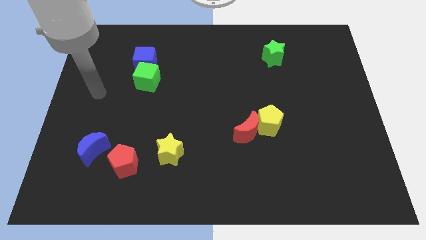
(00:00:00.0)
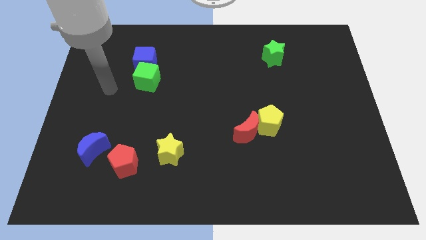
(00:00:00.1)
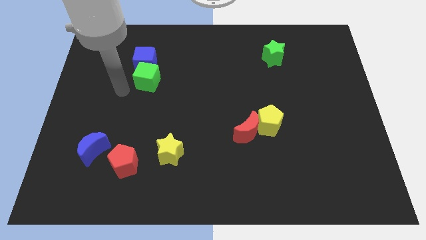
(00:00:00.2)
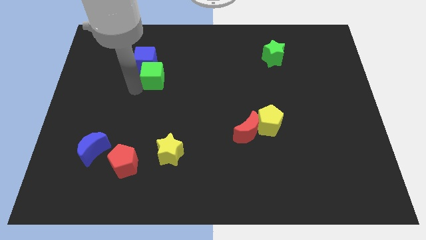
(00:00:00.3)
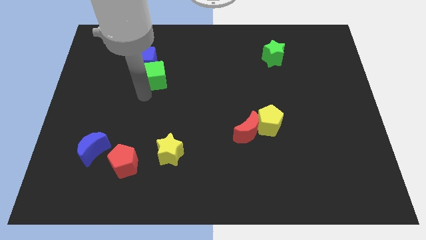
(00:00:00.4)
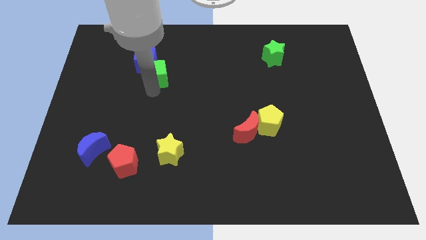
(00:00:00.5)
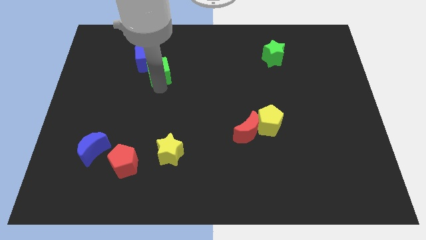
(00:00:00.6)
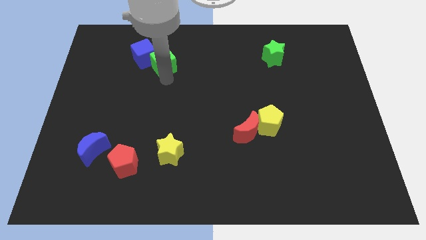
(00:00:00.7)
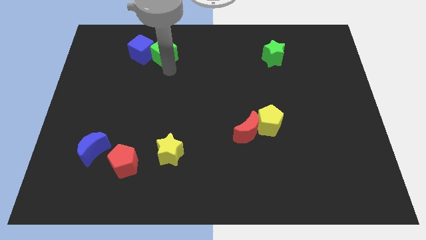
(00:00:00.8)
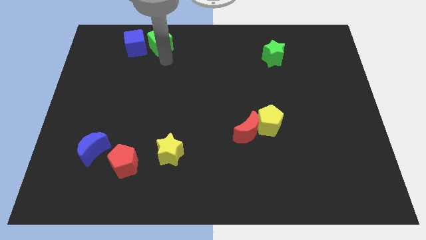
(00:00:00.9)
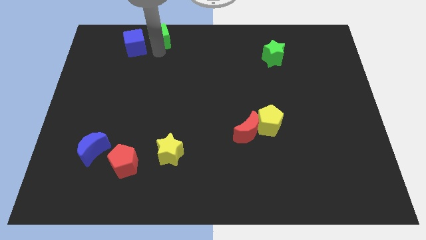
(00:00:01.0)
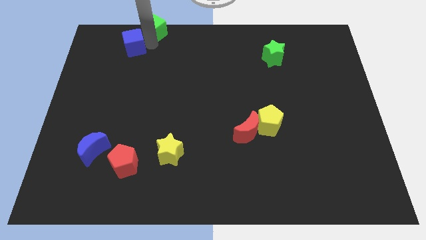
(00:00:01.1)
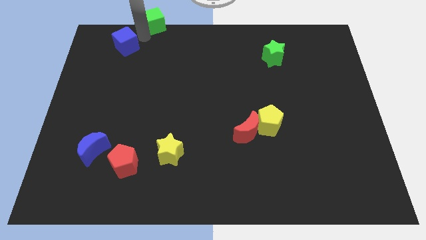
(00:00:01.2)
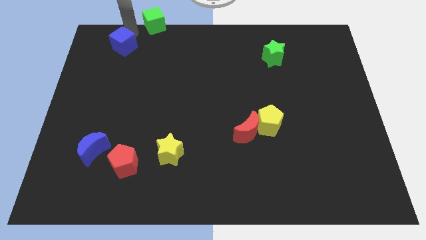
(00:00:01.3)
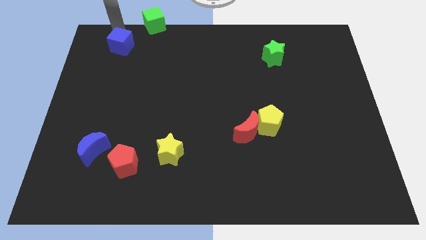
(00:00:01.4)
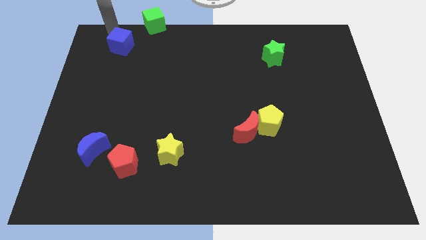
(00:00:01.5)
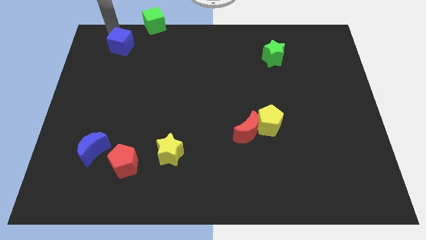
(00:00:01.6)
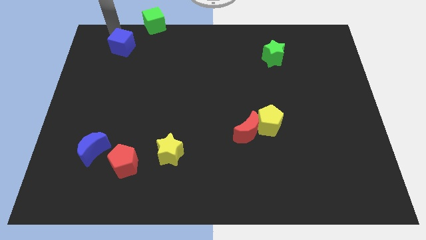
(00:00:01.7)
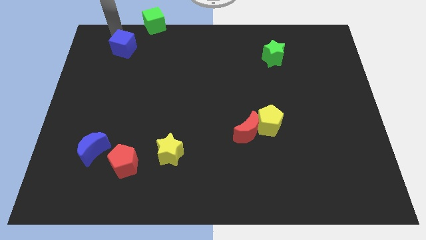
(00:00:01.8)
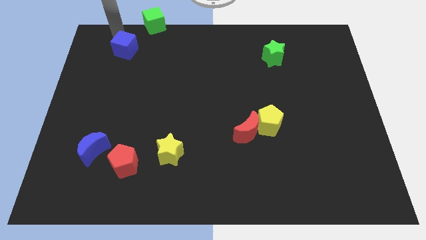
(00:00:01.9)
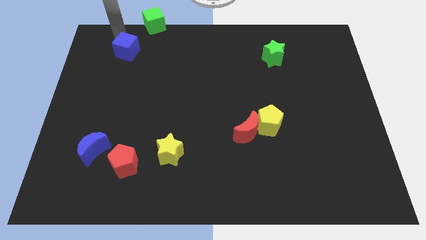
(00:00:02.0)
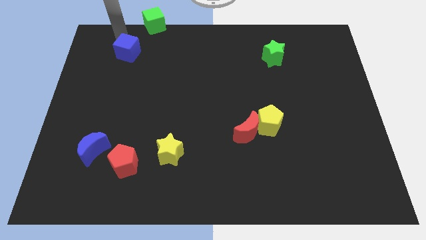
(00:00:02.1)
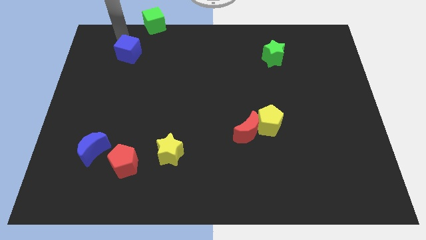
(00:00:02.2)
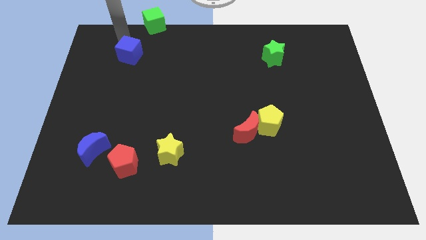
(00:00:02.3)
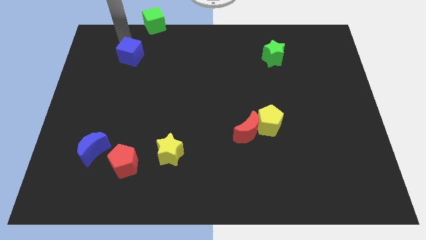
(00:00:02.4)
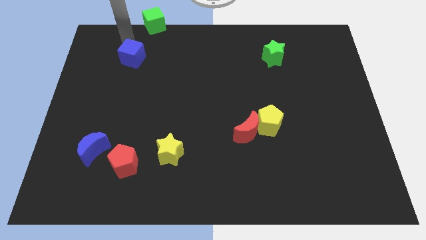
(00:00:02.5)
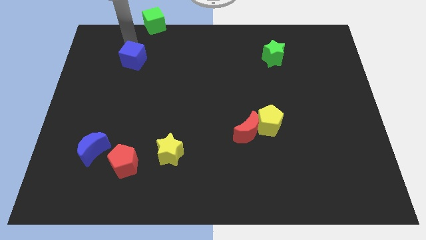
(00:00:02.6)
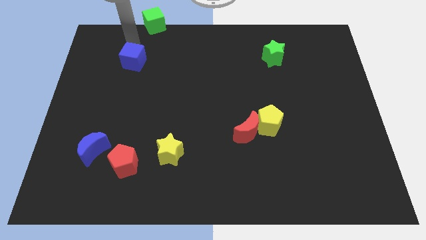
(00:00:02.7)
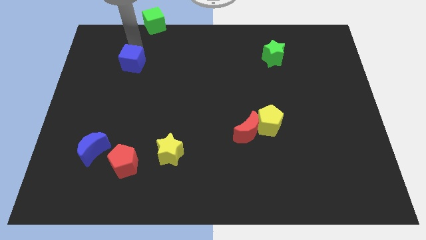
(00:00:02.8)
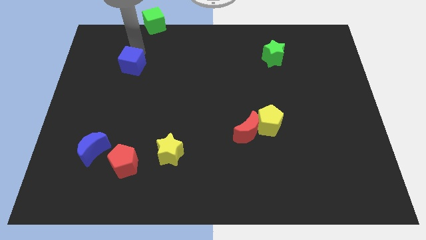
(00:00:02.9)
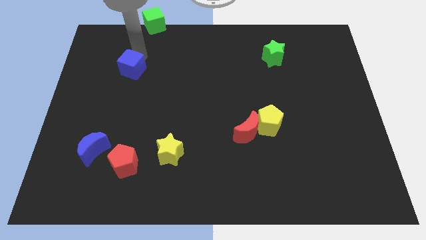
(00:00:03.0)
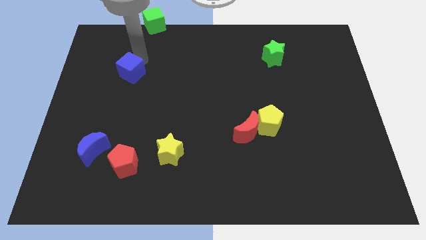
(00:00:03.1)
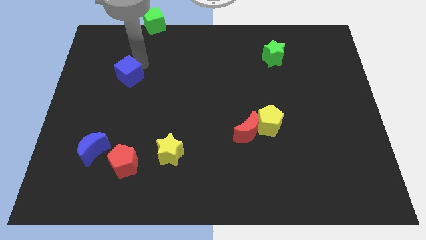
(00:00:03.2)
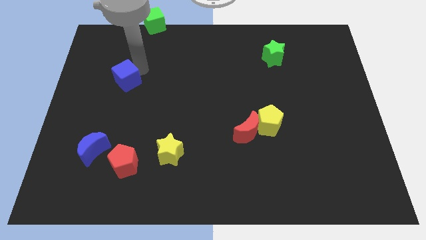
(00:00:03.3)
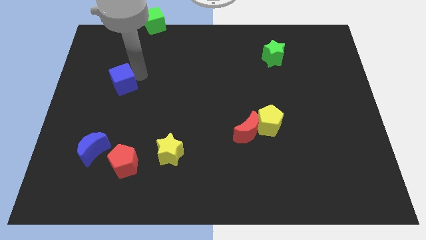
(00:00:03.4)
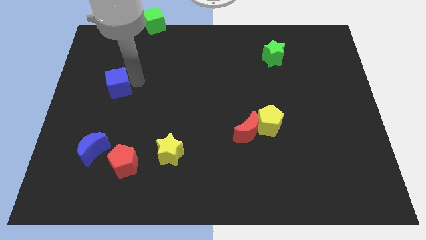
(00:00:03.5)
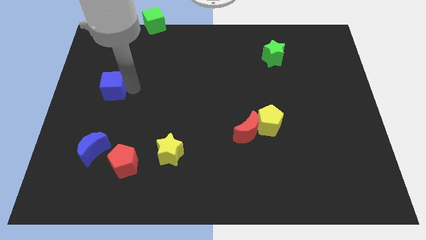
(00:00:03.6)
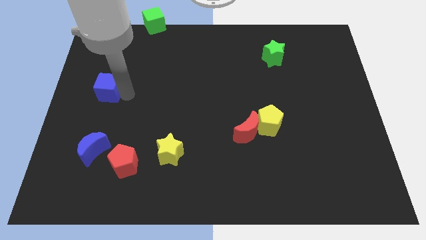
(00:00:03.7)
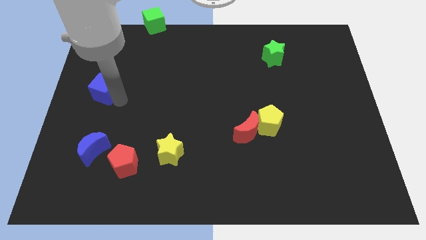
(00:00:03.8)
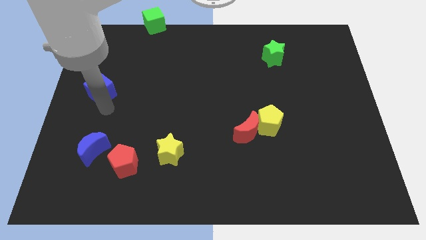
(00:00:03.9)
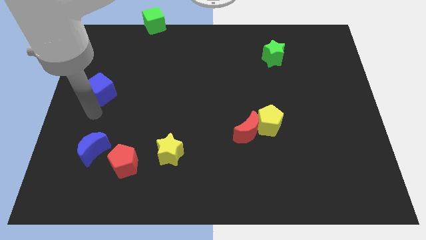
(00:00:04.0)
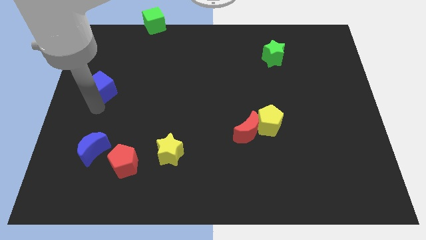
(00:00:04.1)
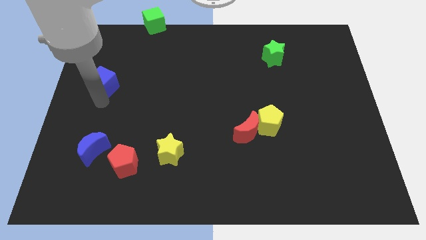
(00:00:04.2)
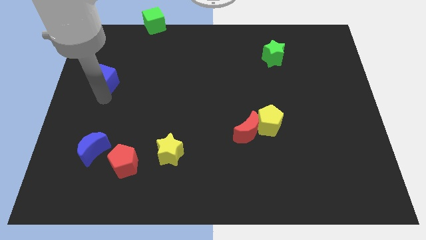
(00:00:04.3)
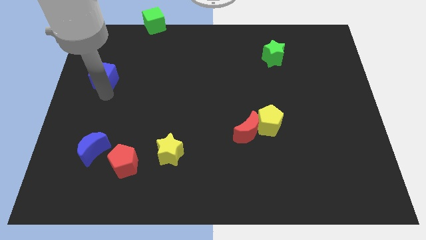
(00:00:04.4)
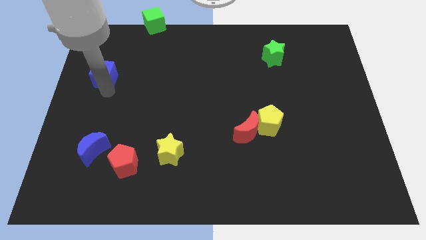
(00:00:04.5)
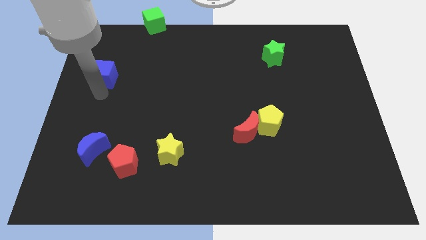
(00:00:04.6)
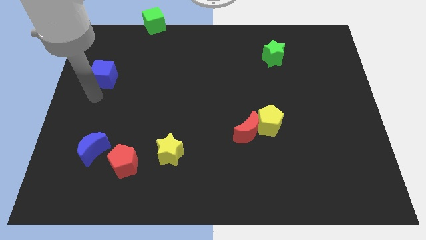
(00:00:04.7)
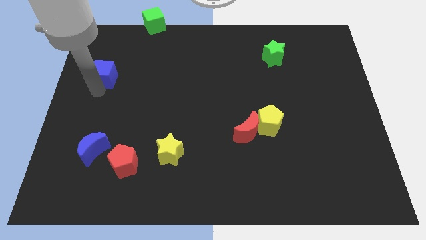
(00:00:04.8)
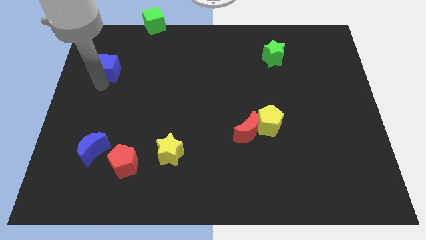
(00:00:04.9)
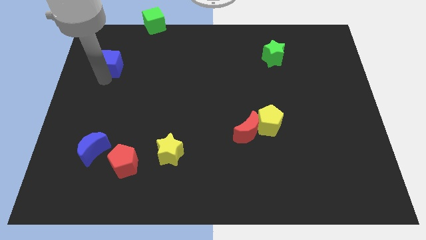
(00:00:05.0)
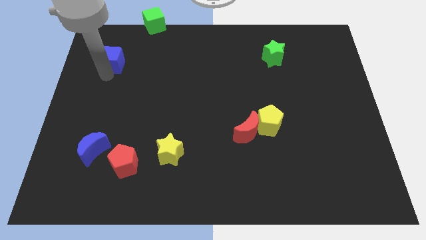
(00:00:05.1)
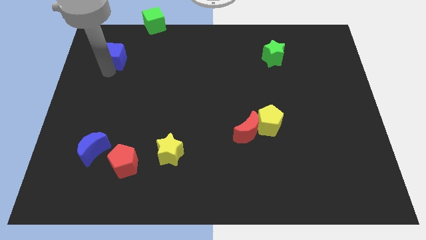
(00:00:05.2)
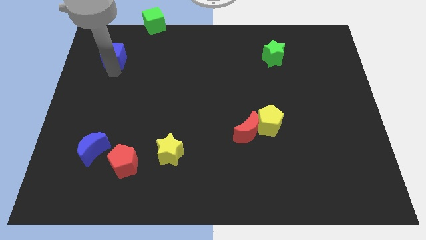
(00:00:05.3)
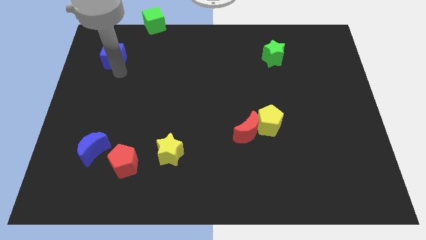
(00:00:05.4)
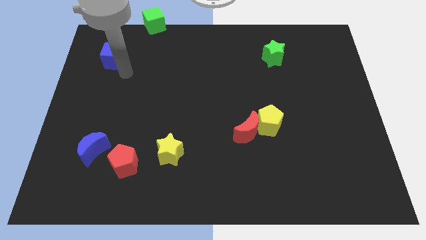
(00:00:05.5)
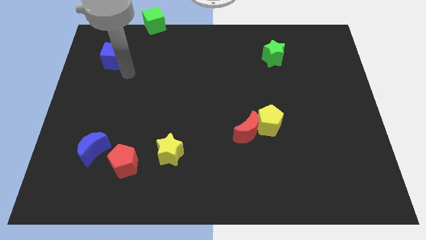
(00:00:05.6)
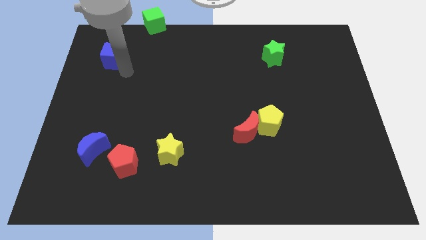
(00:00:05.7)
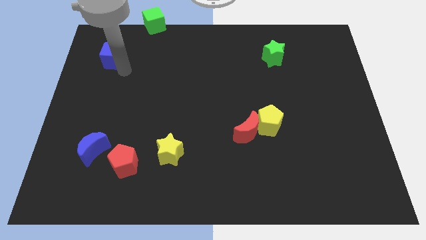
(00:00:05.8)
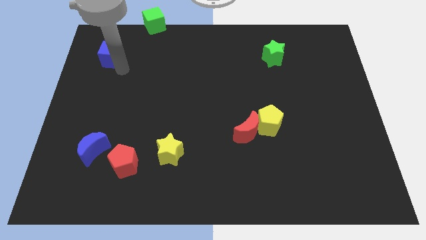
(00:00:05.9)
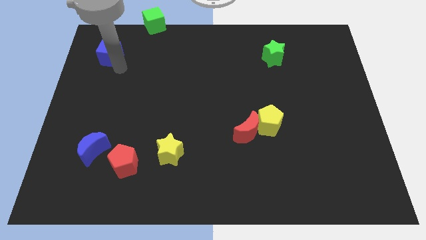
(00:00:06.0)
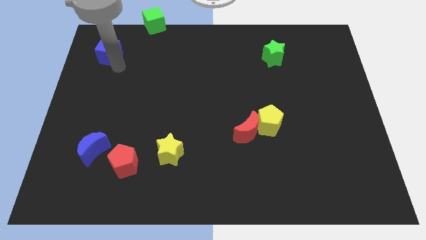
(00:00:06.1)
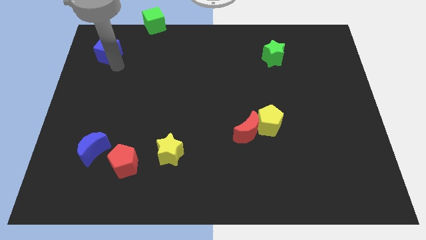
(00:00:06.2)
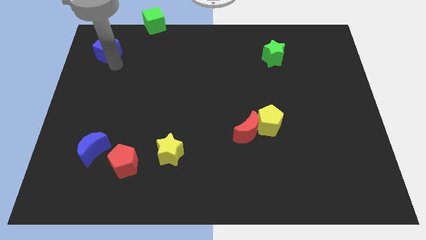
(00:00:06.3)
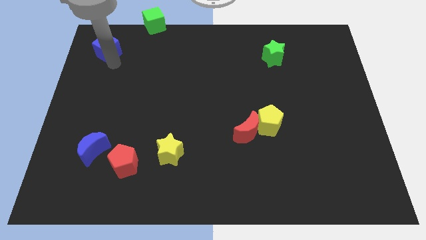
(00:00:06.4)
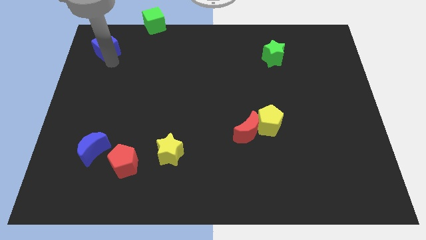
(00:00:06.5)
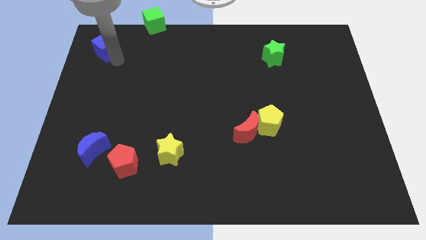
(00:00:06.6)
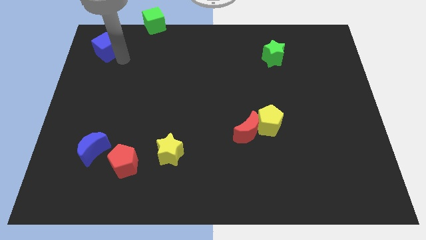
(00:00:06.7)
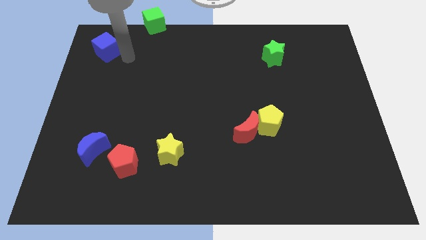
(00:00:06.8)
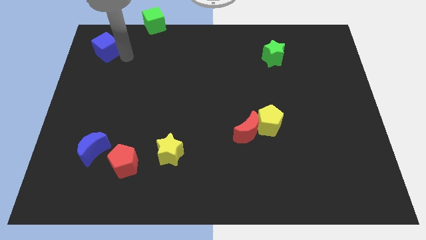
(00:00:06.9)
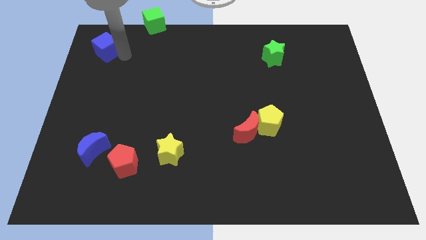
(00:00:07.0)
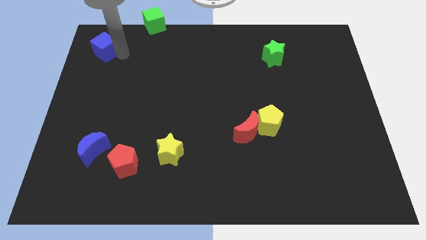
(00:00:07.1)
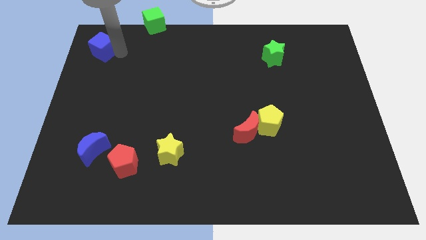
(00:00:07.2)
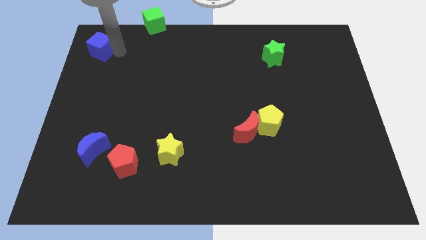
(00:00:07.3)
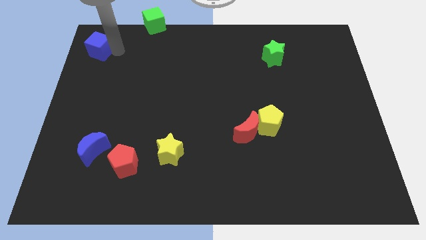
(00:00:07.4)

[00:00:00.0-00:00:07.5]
put the blue cube to the top left corner
